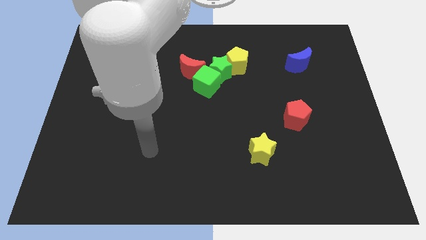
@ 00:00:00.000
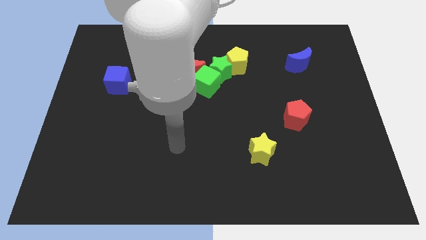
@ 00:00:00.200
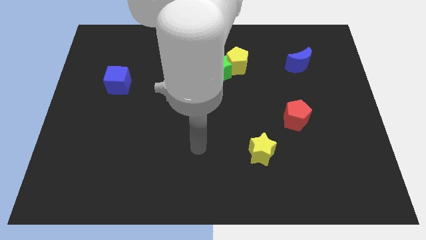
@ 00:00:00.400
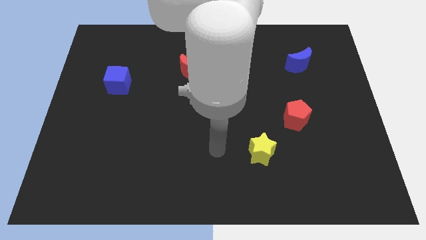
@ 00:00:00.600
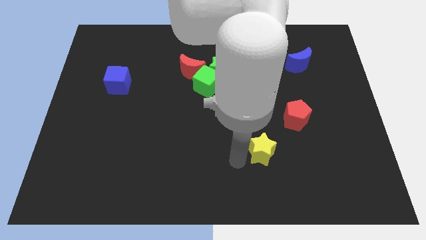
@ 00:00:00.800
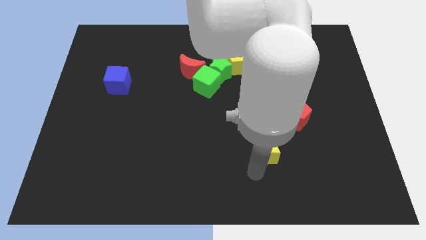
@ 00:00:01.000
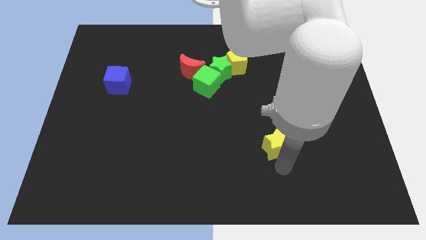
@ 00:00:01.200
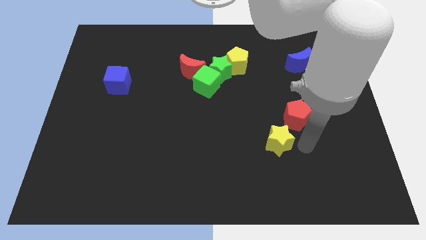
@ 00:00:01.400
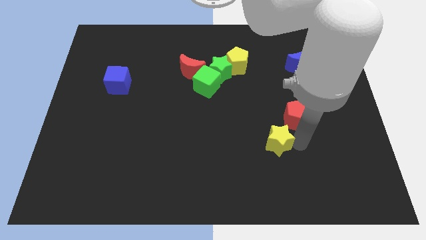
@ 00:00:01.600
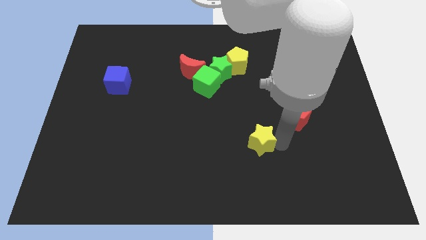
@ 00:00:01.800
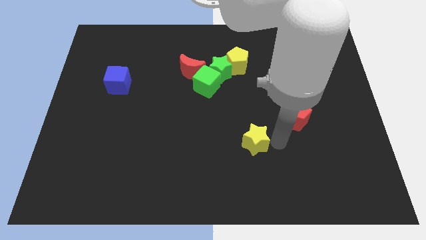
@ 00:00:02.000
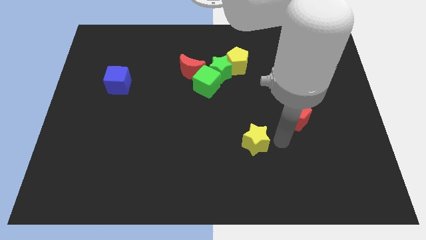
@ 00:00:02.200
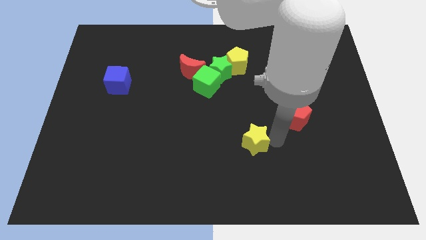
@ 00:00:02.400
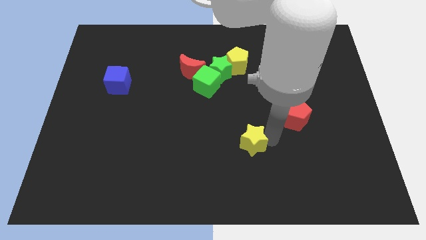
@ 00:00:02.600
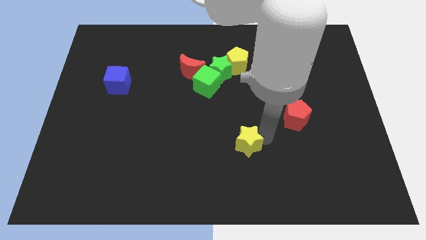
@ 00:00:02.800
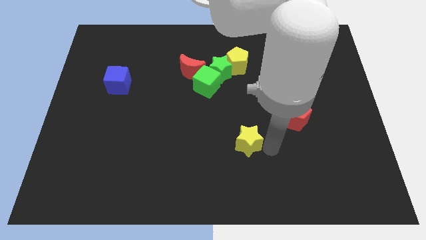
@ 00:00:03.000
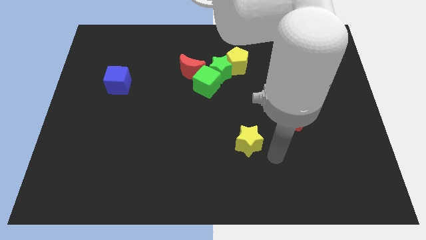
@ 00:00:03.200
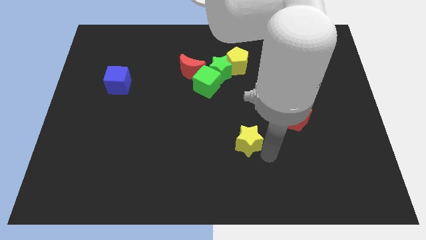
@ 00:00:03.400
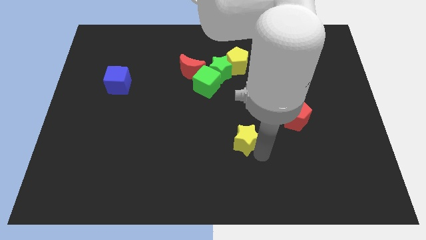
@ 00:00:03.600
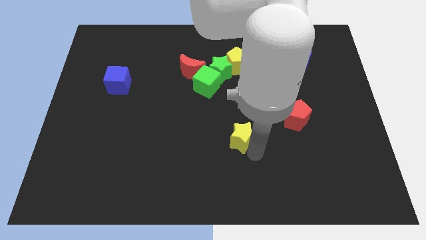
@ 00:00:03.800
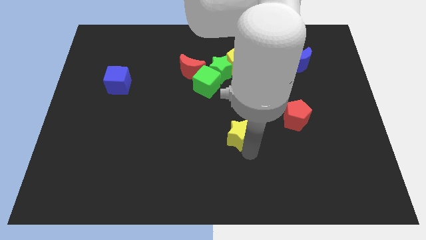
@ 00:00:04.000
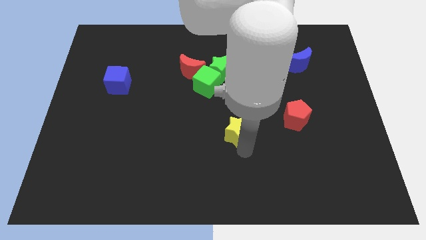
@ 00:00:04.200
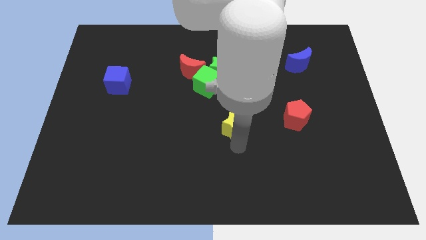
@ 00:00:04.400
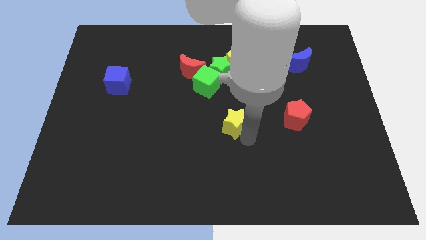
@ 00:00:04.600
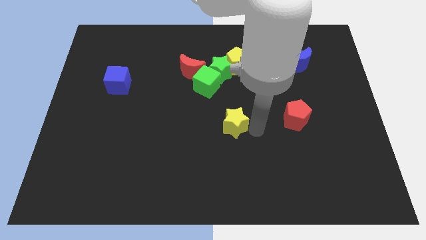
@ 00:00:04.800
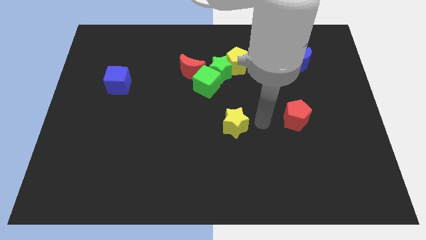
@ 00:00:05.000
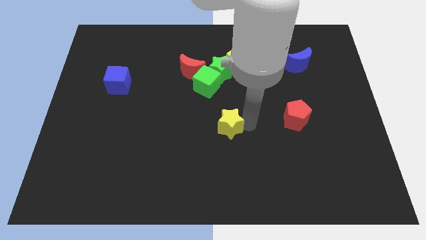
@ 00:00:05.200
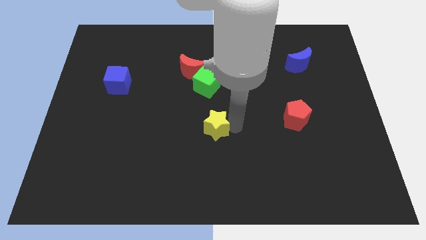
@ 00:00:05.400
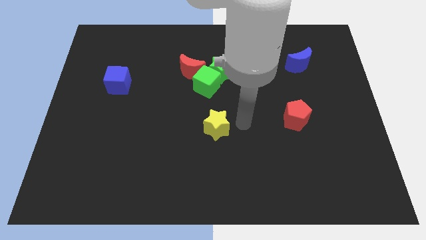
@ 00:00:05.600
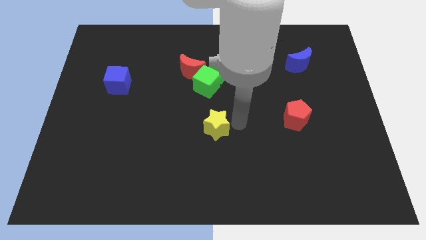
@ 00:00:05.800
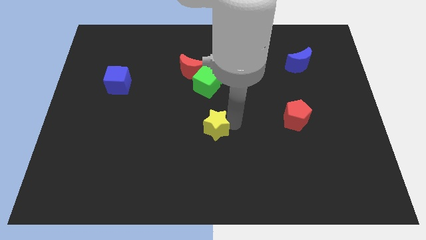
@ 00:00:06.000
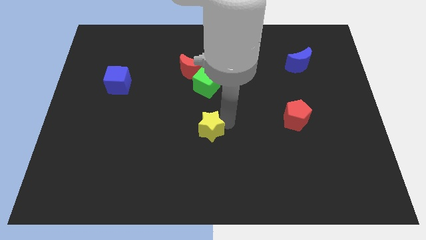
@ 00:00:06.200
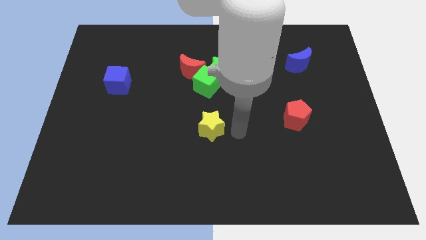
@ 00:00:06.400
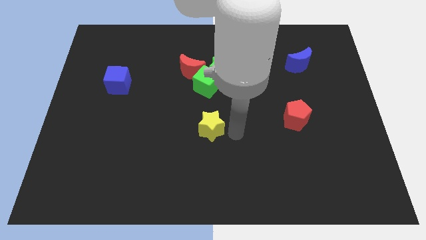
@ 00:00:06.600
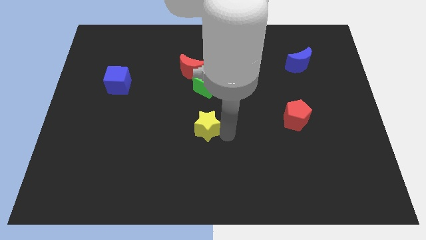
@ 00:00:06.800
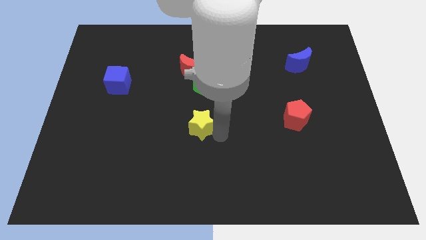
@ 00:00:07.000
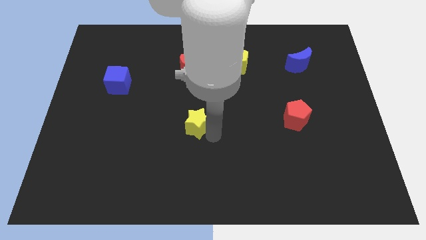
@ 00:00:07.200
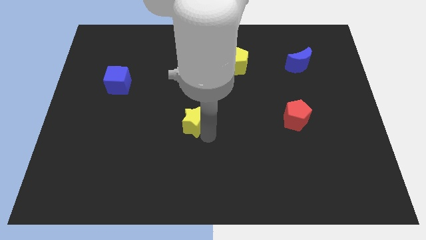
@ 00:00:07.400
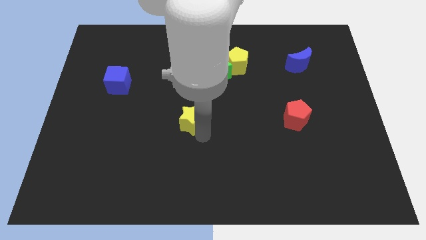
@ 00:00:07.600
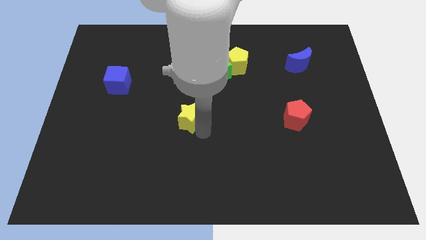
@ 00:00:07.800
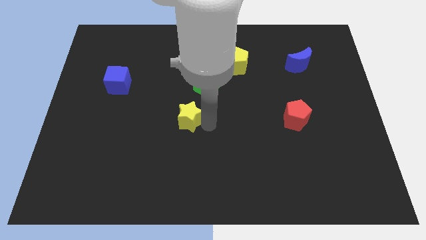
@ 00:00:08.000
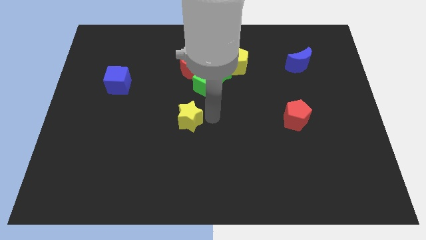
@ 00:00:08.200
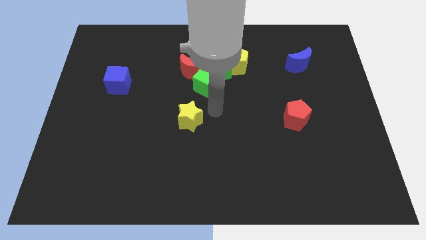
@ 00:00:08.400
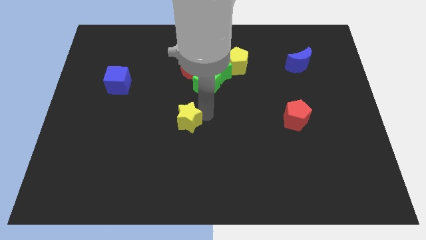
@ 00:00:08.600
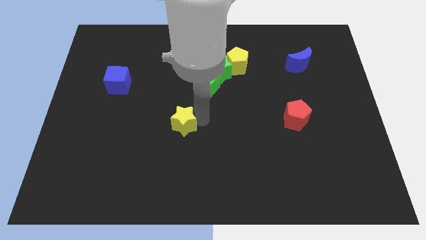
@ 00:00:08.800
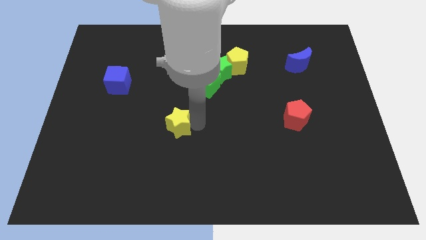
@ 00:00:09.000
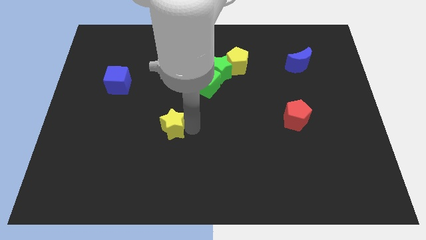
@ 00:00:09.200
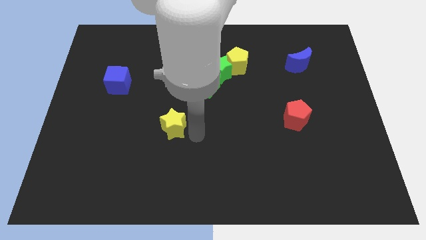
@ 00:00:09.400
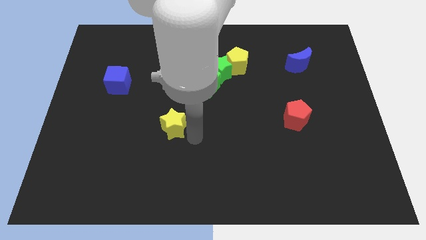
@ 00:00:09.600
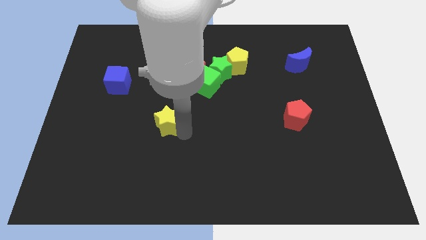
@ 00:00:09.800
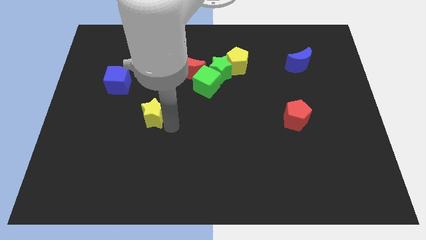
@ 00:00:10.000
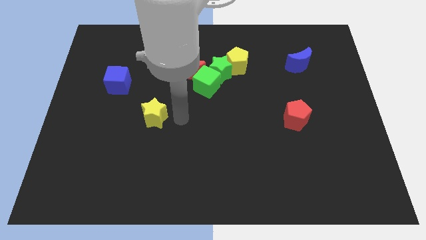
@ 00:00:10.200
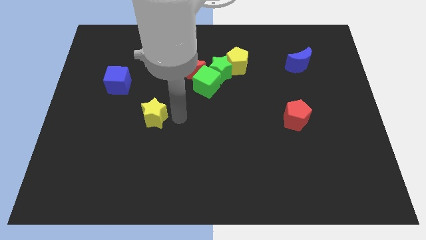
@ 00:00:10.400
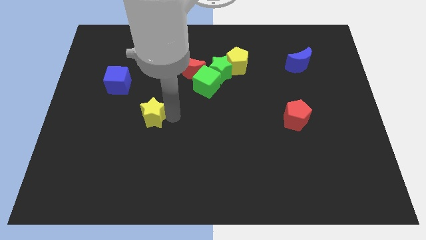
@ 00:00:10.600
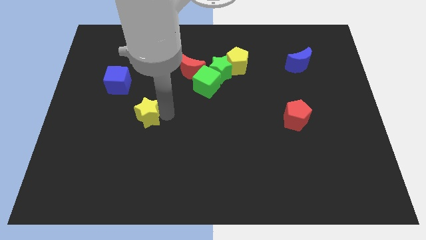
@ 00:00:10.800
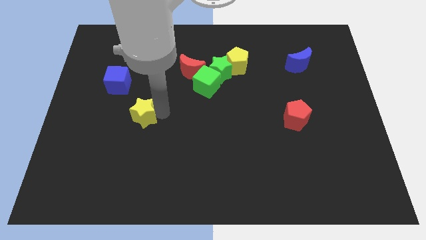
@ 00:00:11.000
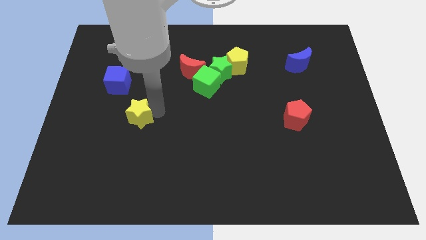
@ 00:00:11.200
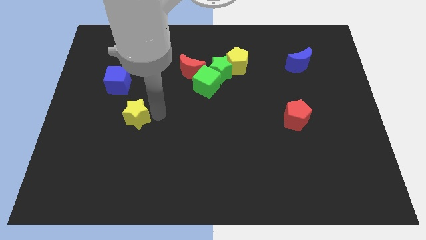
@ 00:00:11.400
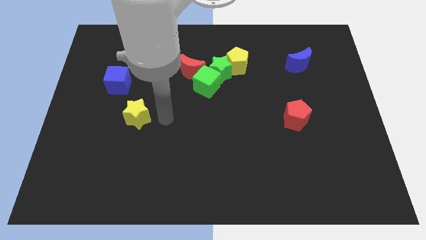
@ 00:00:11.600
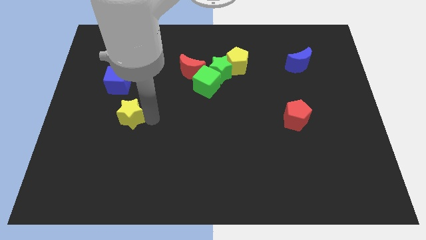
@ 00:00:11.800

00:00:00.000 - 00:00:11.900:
put the yellow star below the blue cube
